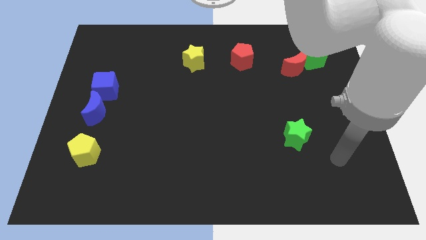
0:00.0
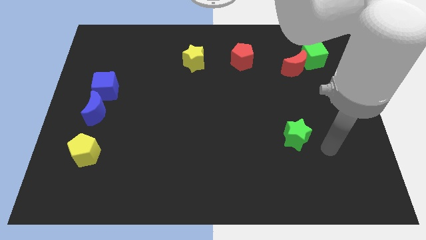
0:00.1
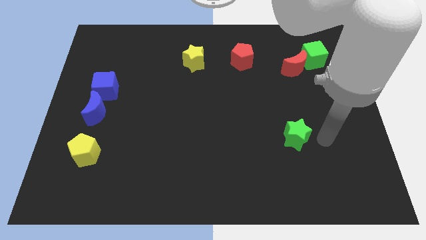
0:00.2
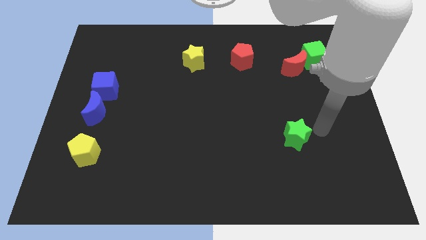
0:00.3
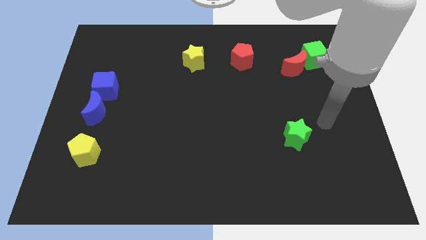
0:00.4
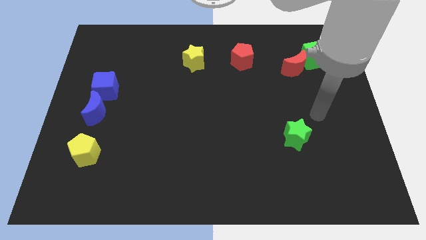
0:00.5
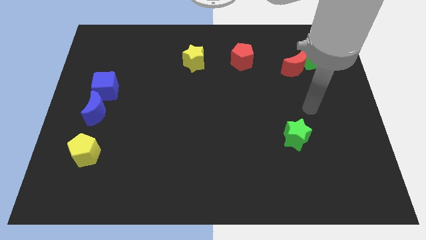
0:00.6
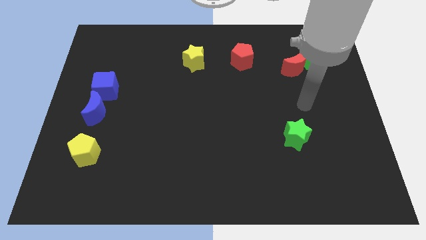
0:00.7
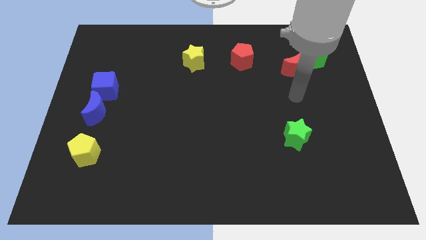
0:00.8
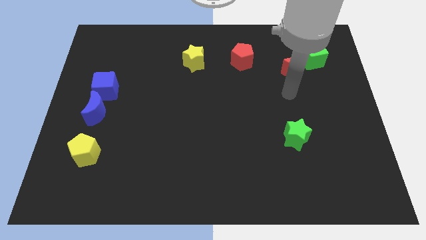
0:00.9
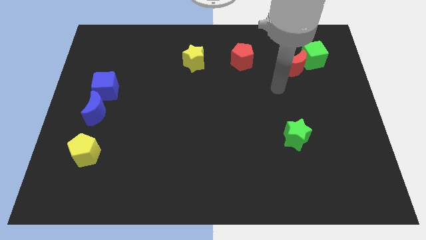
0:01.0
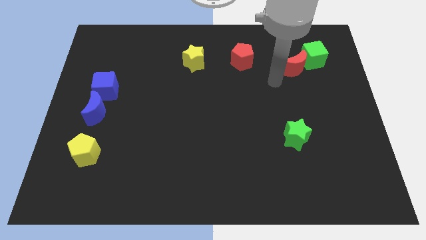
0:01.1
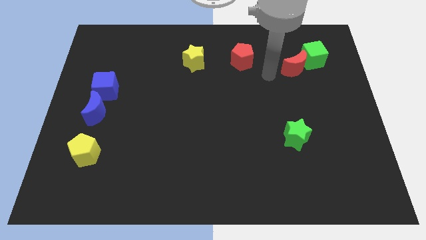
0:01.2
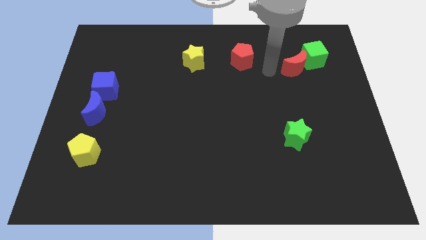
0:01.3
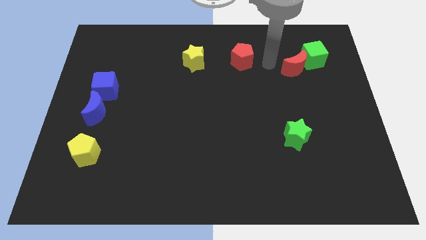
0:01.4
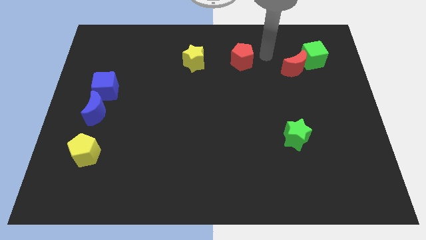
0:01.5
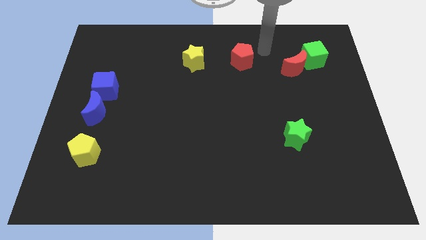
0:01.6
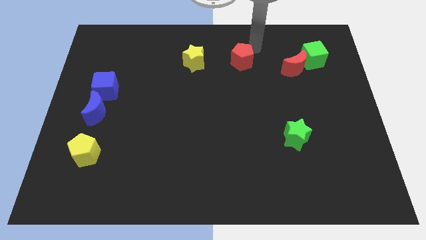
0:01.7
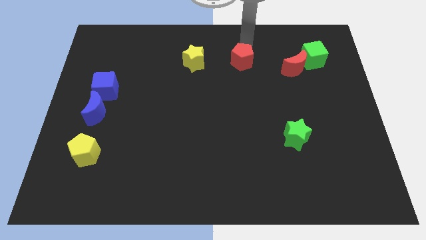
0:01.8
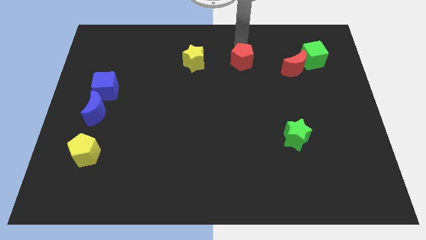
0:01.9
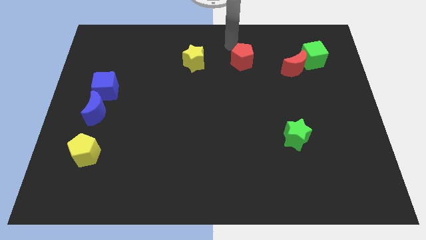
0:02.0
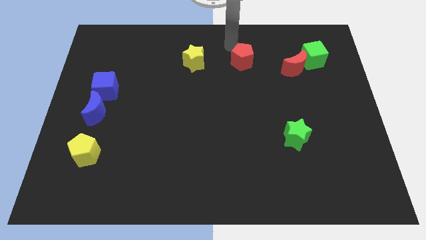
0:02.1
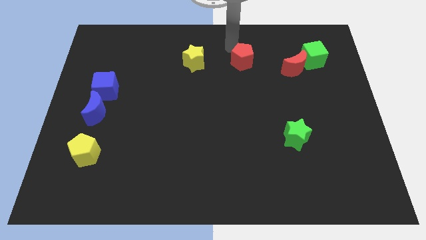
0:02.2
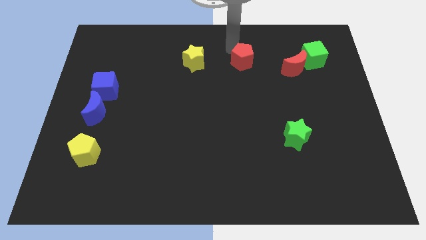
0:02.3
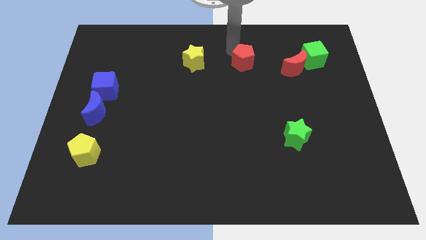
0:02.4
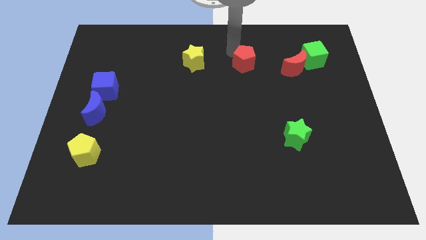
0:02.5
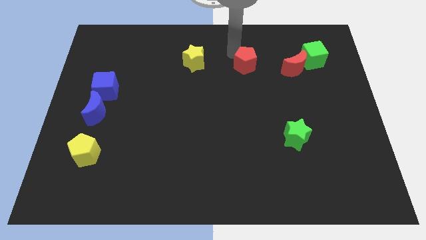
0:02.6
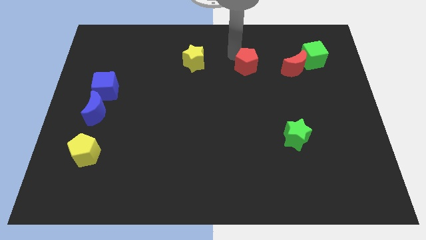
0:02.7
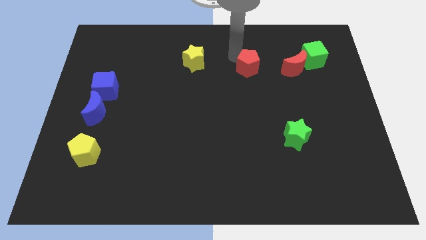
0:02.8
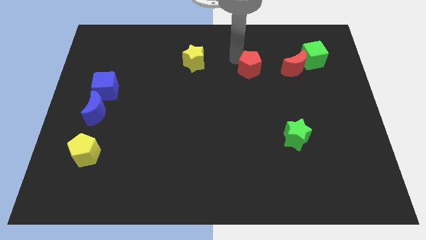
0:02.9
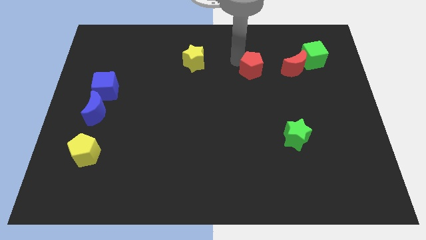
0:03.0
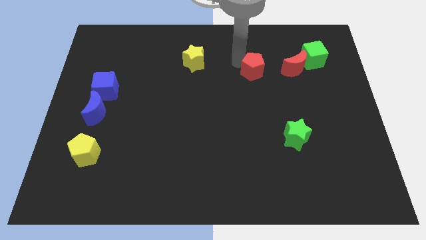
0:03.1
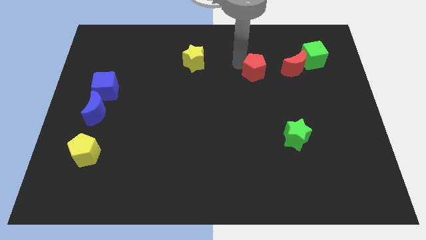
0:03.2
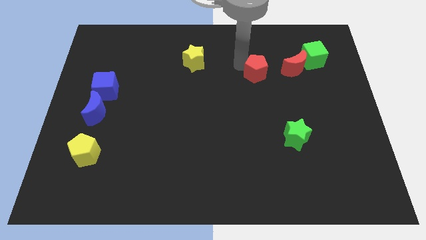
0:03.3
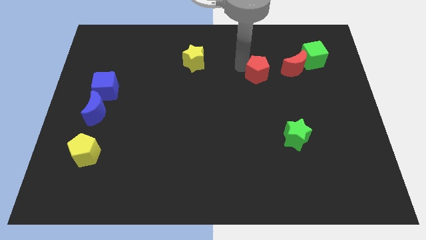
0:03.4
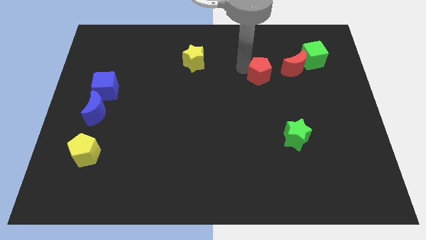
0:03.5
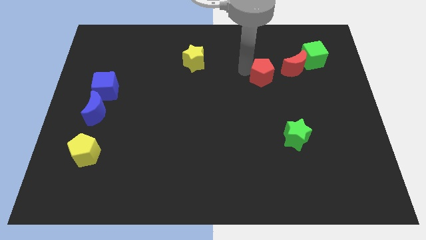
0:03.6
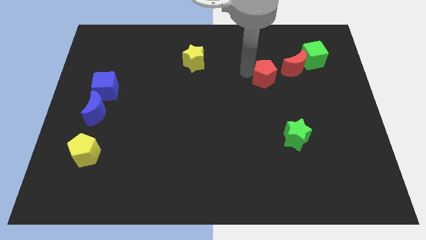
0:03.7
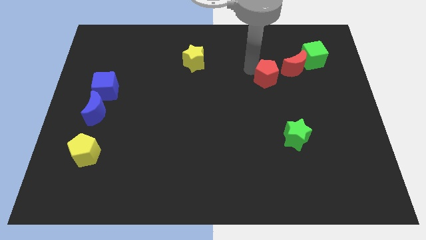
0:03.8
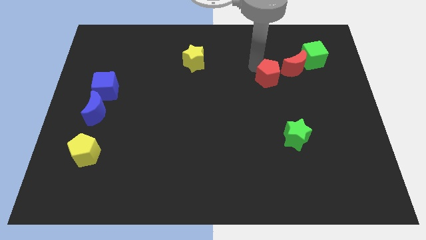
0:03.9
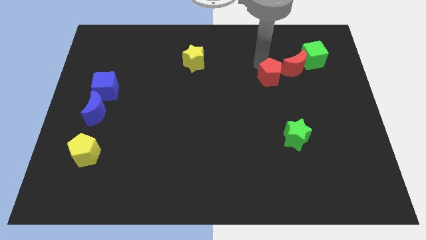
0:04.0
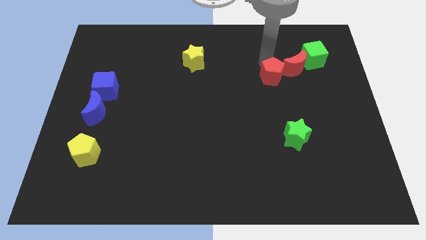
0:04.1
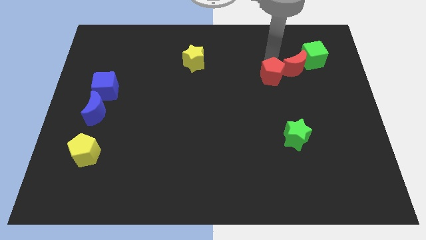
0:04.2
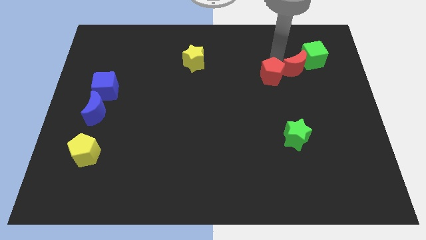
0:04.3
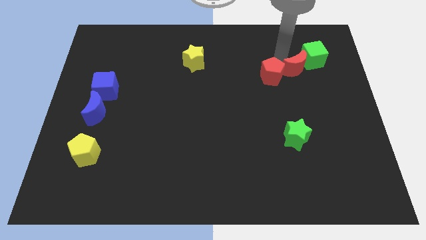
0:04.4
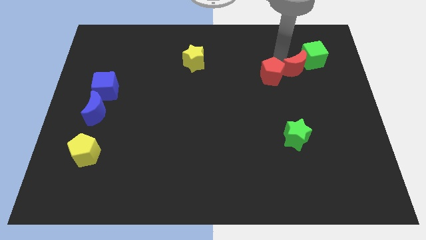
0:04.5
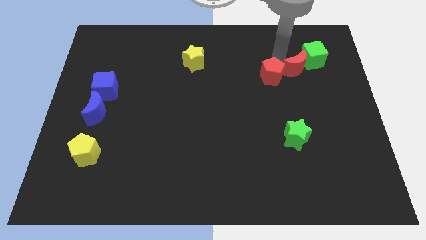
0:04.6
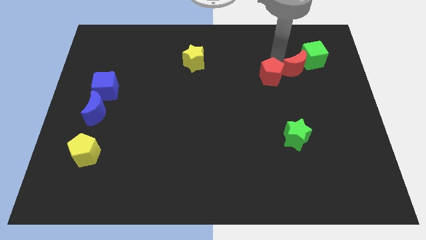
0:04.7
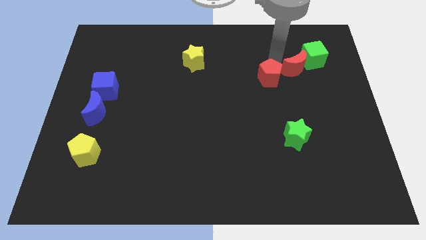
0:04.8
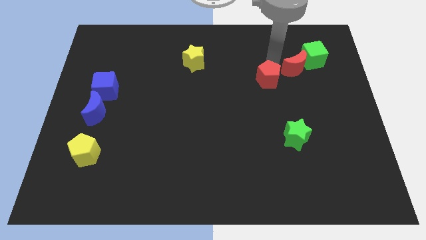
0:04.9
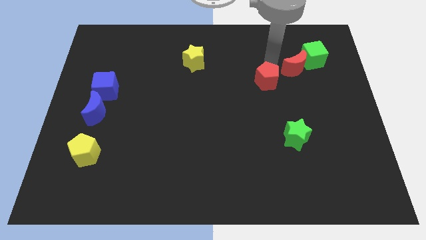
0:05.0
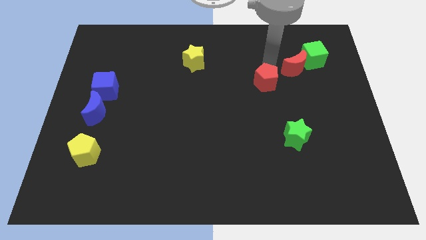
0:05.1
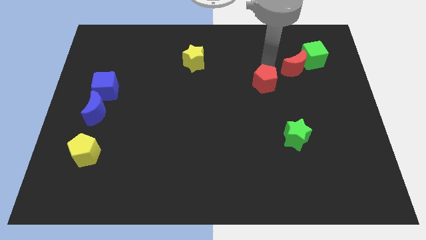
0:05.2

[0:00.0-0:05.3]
slightly slide the red pentagon down

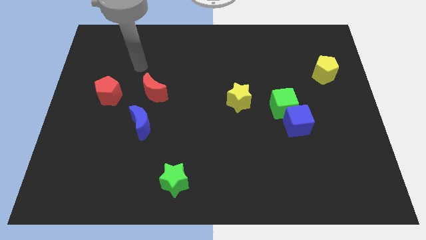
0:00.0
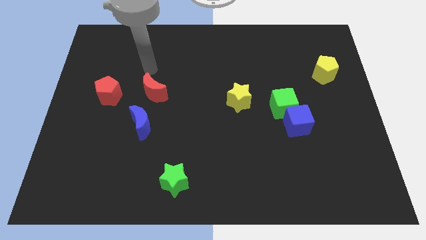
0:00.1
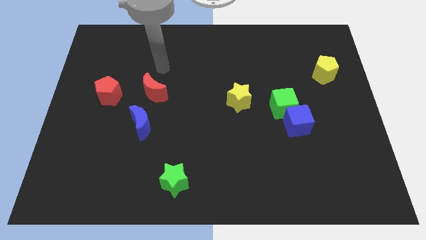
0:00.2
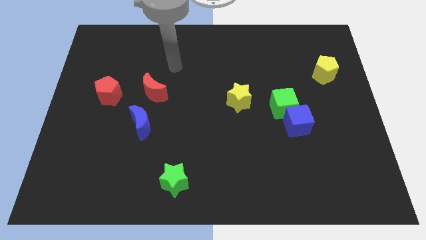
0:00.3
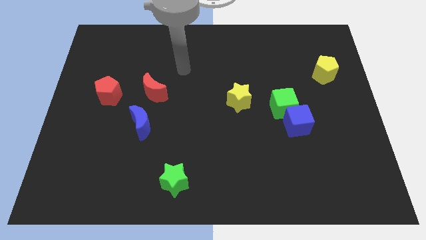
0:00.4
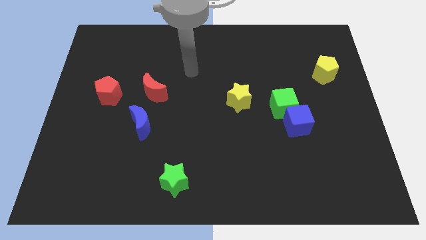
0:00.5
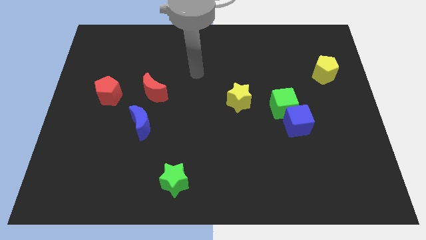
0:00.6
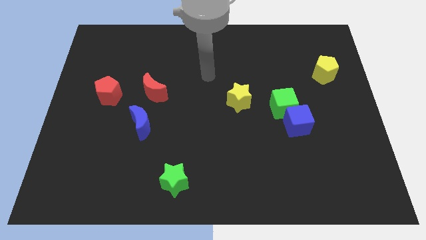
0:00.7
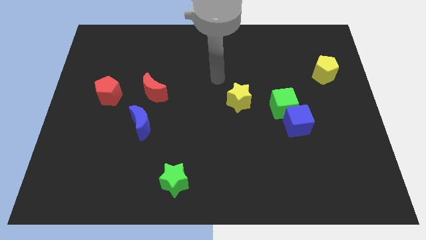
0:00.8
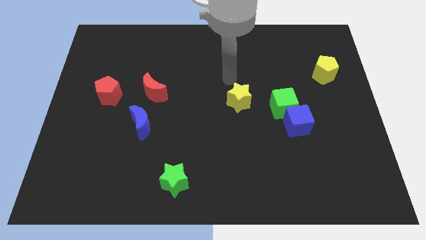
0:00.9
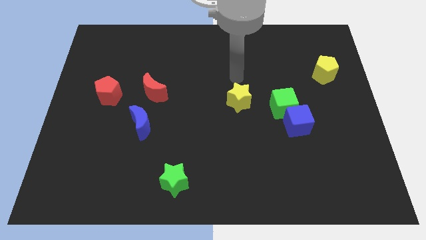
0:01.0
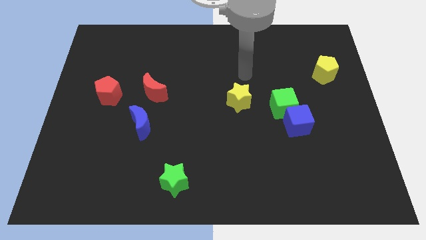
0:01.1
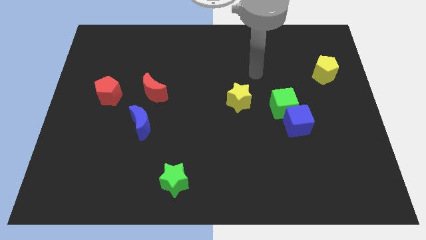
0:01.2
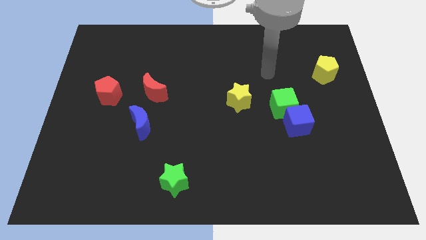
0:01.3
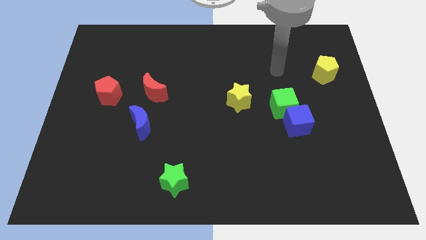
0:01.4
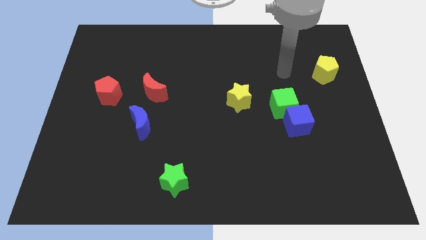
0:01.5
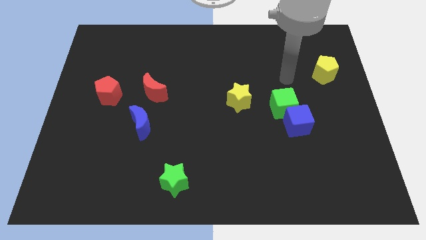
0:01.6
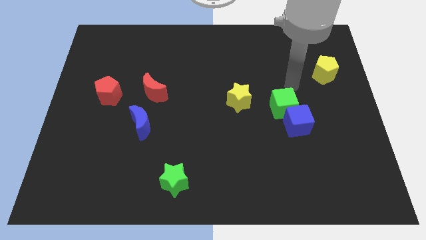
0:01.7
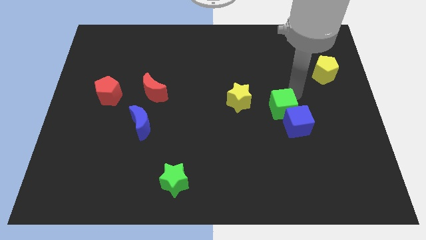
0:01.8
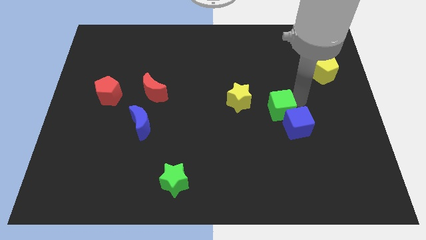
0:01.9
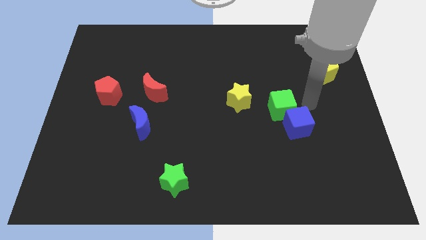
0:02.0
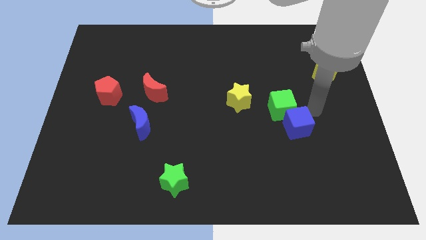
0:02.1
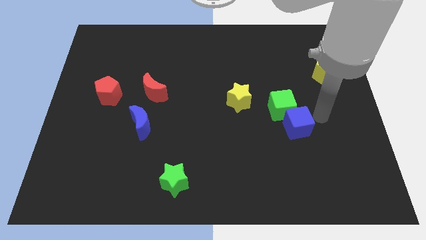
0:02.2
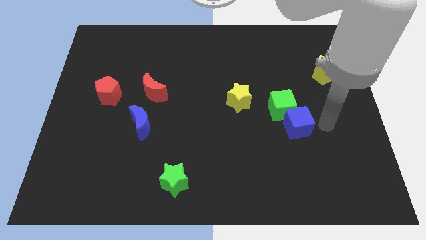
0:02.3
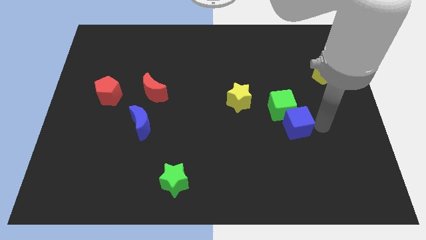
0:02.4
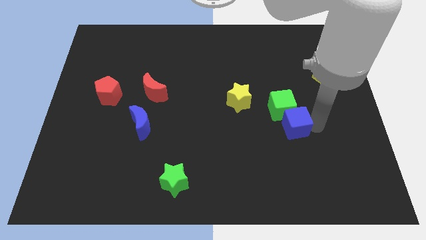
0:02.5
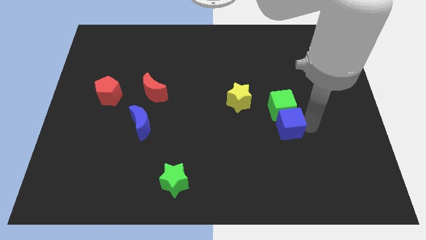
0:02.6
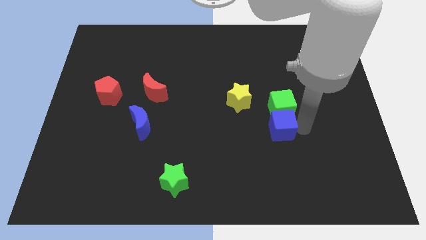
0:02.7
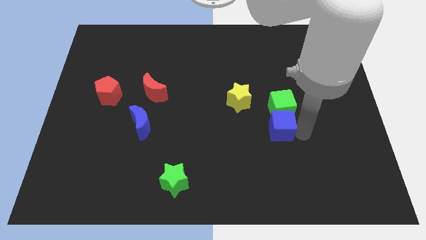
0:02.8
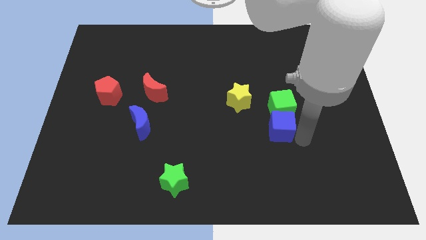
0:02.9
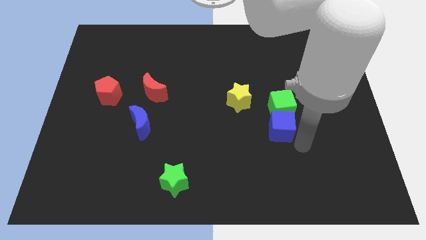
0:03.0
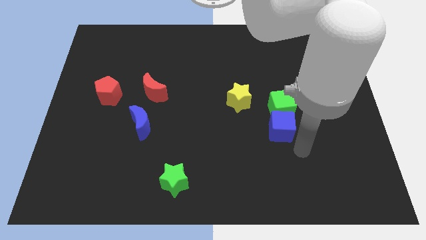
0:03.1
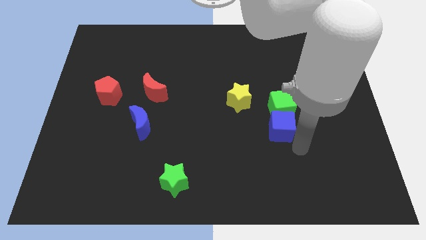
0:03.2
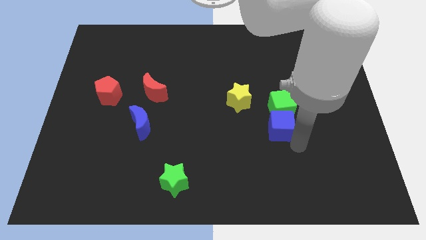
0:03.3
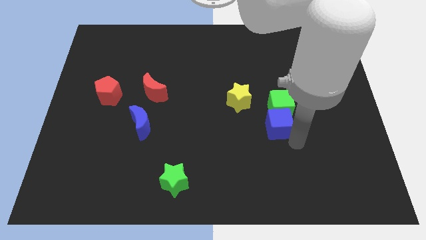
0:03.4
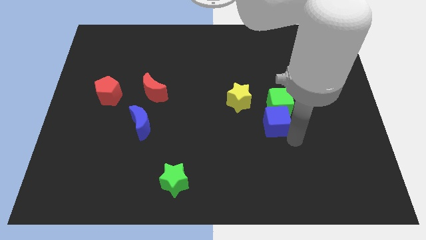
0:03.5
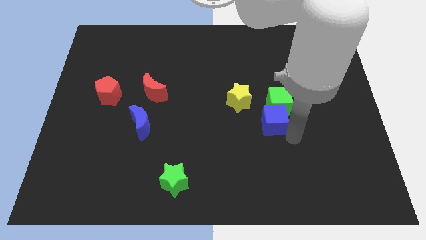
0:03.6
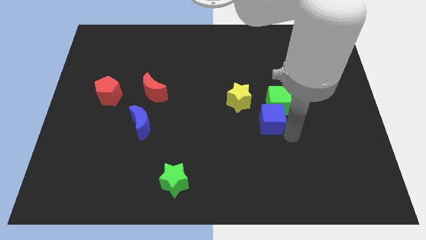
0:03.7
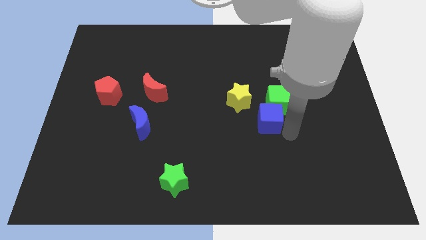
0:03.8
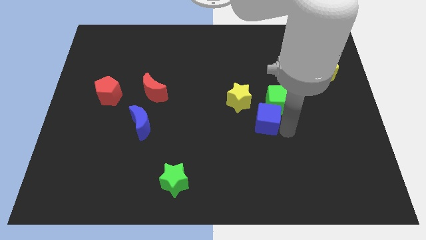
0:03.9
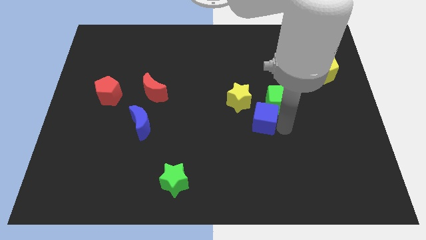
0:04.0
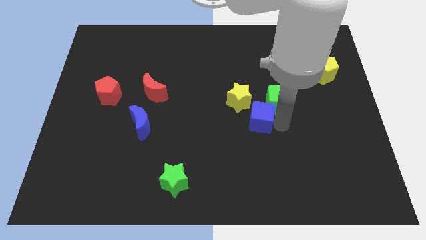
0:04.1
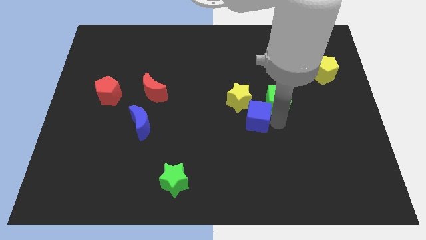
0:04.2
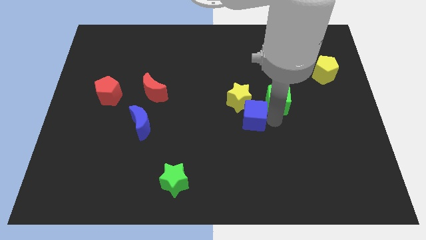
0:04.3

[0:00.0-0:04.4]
move the blue cube a little bit diagonally upwards and left
